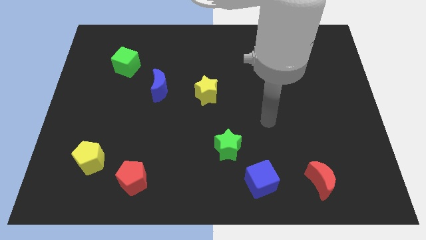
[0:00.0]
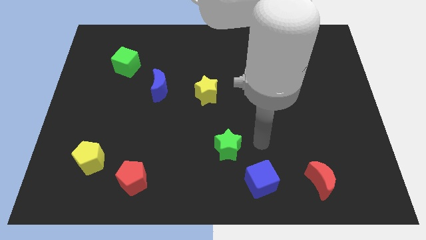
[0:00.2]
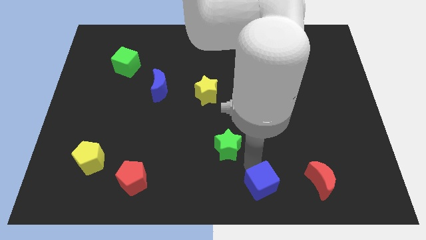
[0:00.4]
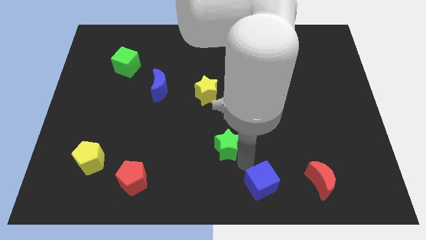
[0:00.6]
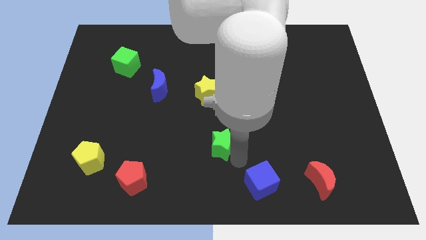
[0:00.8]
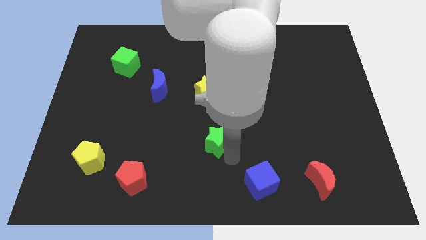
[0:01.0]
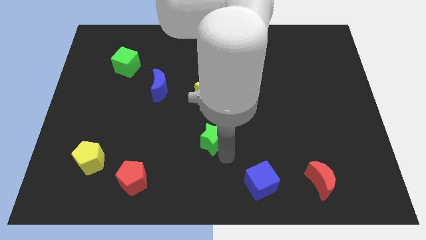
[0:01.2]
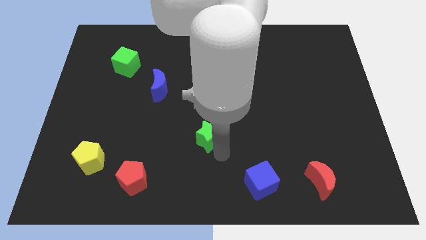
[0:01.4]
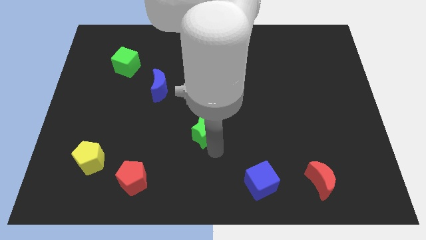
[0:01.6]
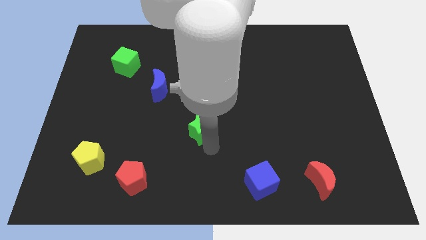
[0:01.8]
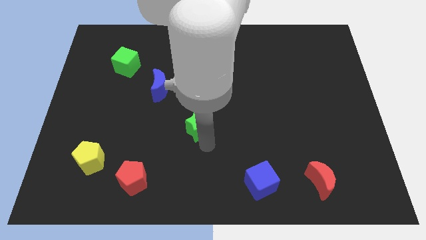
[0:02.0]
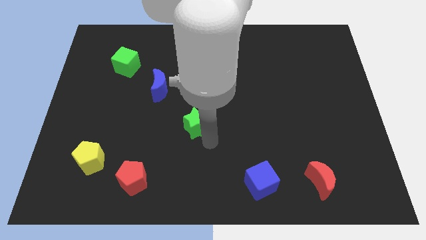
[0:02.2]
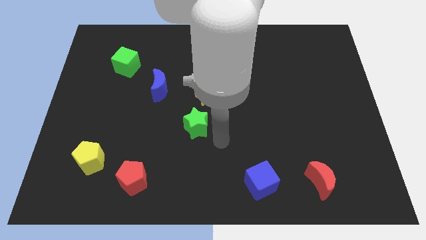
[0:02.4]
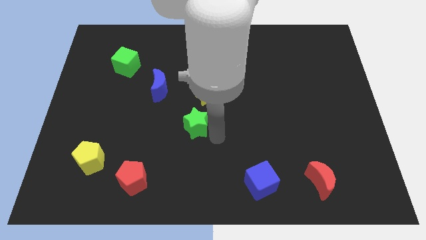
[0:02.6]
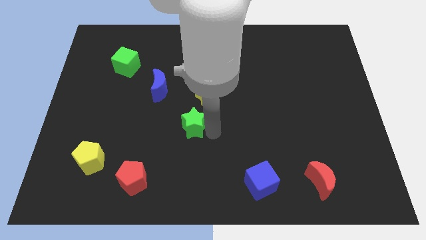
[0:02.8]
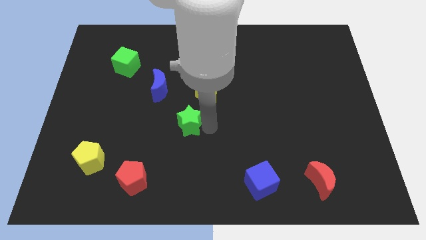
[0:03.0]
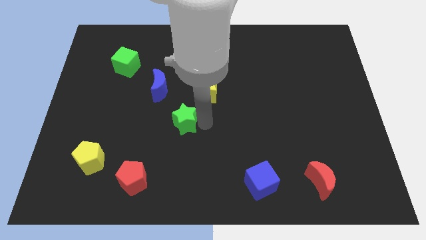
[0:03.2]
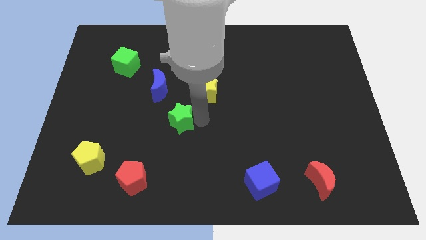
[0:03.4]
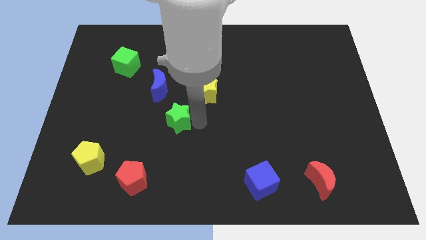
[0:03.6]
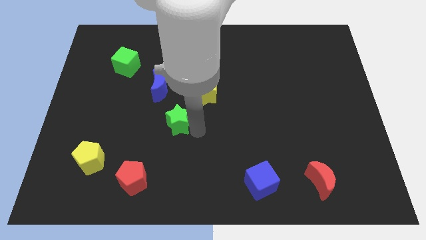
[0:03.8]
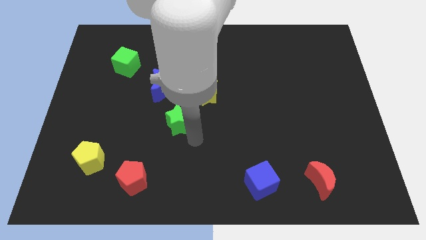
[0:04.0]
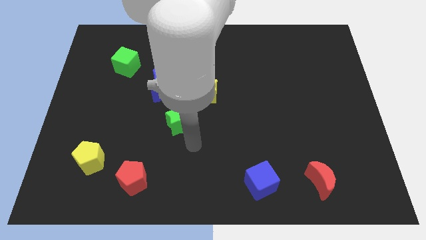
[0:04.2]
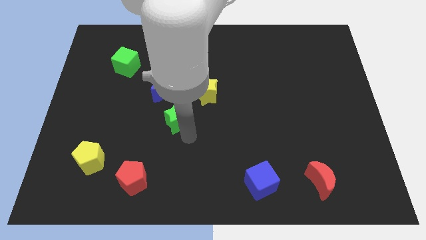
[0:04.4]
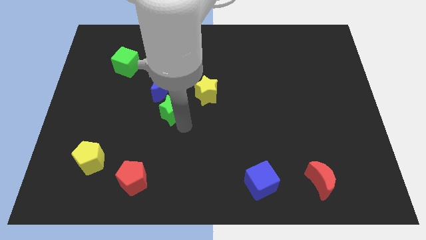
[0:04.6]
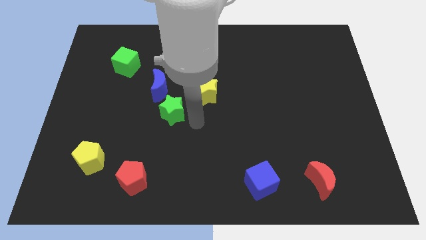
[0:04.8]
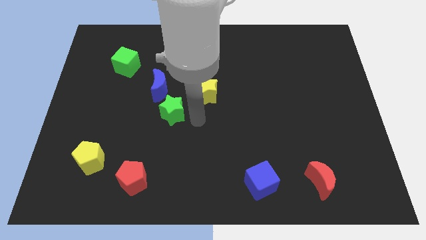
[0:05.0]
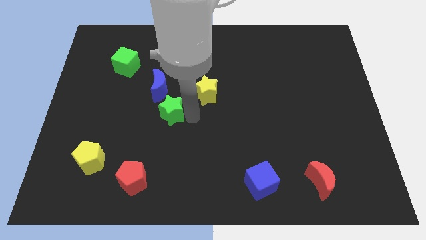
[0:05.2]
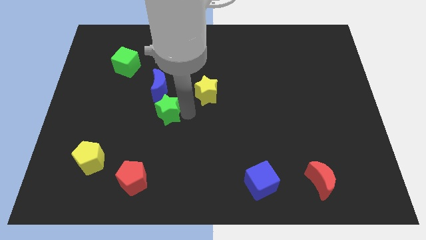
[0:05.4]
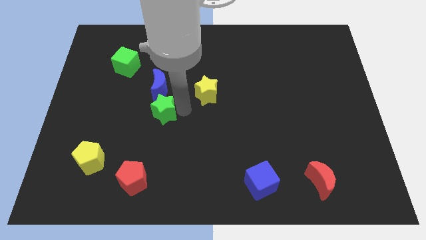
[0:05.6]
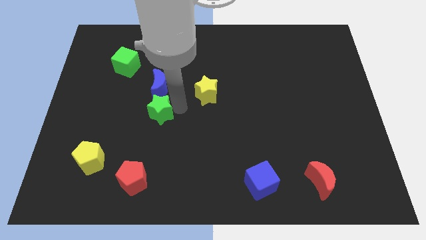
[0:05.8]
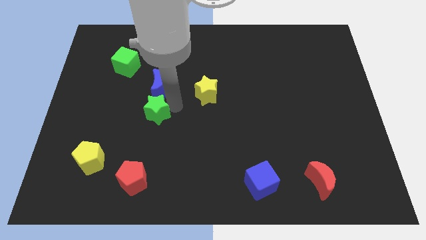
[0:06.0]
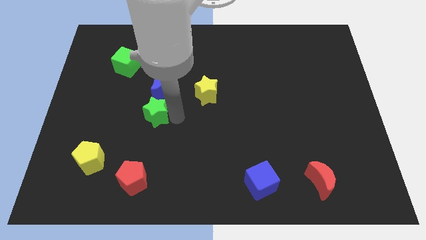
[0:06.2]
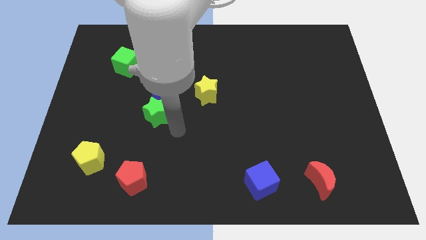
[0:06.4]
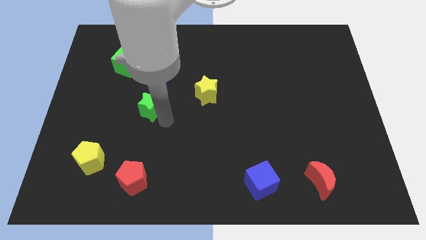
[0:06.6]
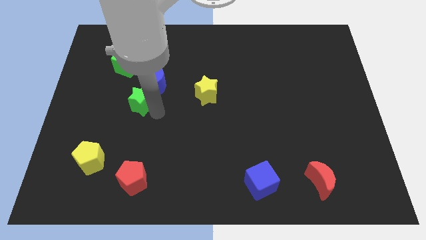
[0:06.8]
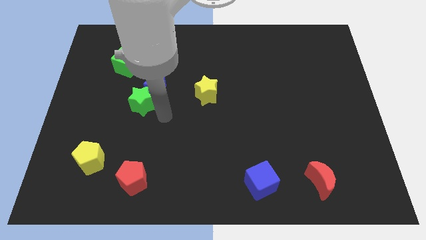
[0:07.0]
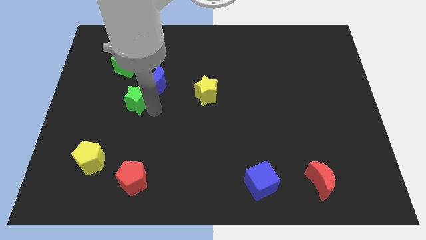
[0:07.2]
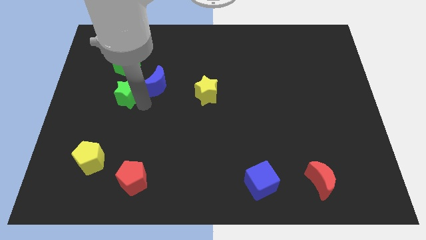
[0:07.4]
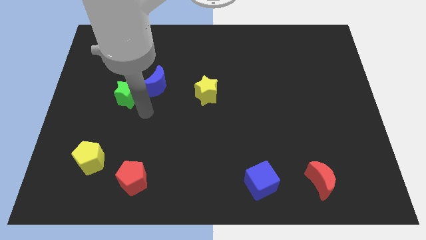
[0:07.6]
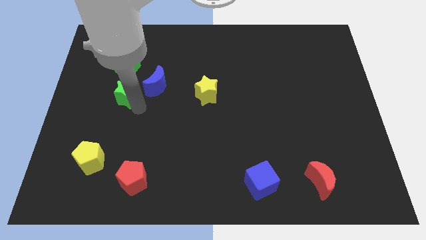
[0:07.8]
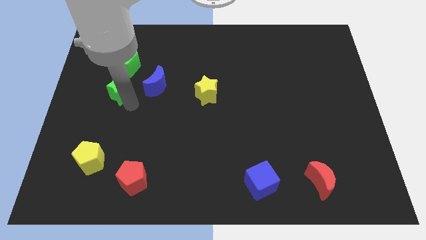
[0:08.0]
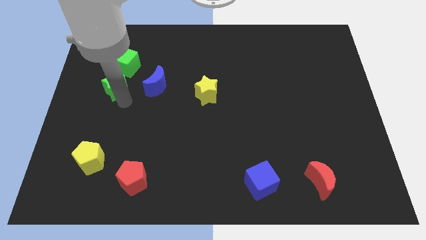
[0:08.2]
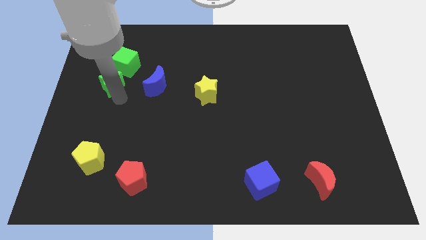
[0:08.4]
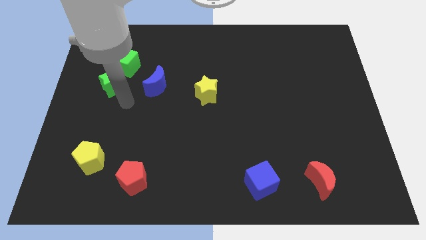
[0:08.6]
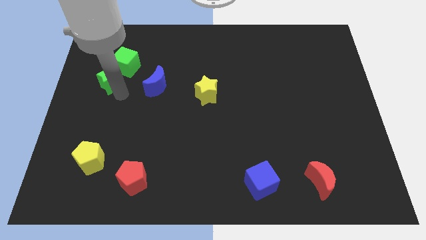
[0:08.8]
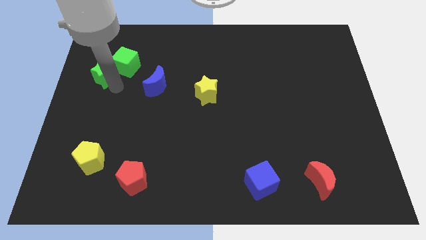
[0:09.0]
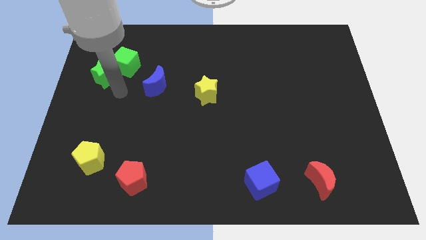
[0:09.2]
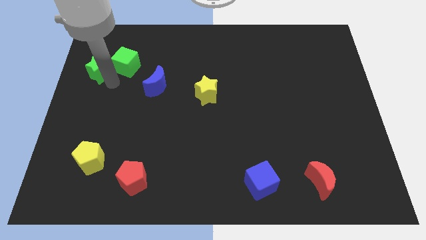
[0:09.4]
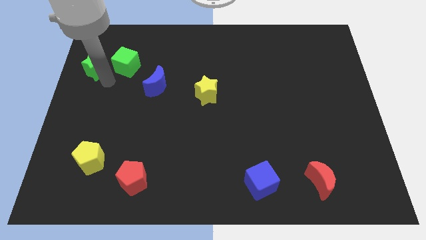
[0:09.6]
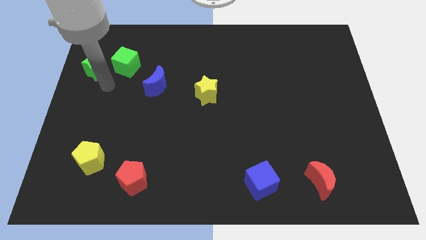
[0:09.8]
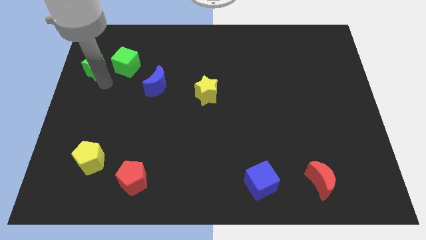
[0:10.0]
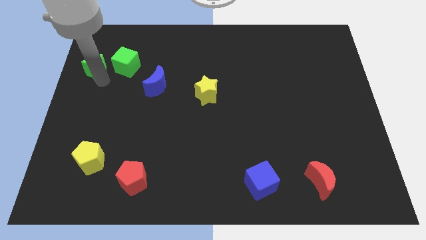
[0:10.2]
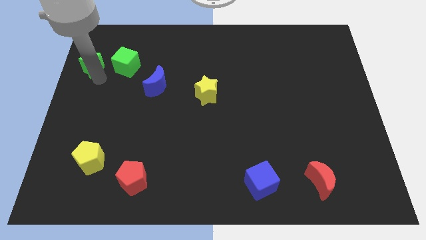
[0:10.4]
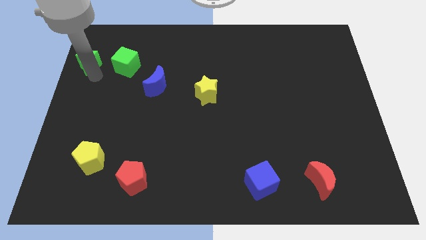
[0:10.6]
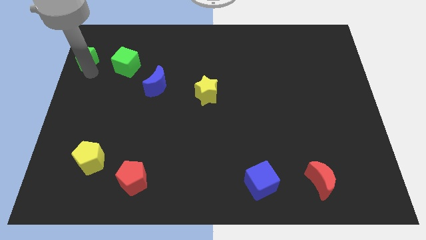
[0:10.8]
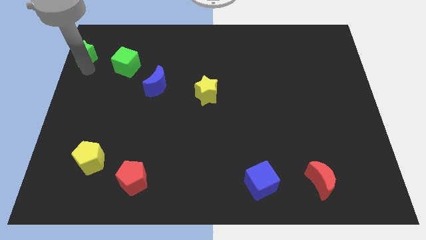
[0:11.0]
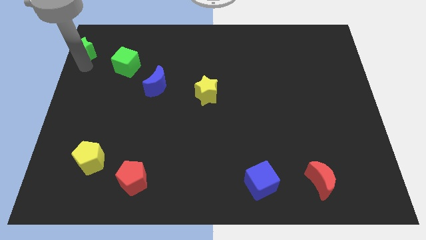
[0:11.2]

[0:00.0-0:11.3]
put the green star to the top left of the board
